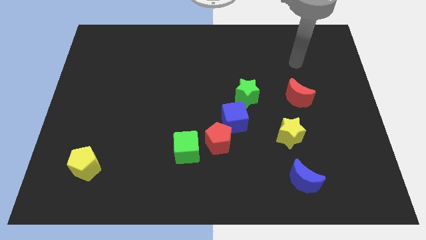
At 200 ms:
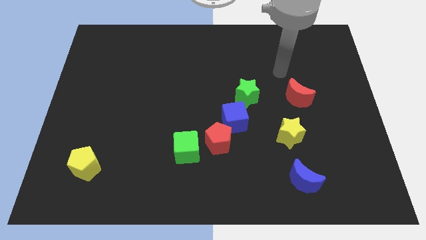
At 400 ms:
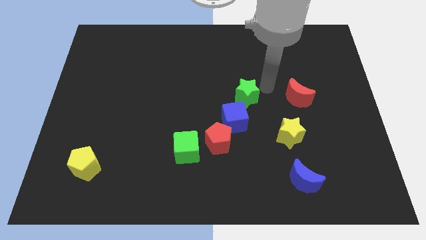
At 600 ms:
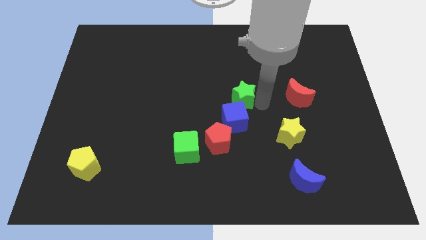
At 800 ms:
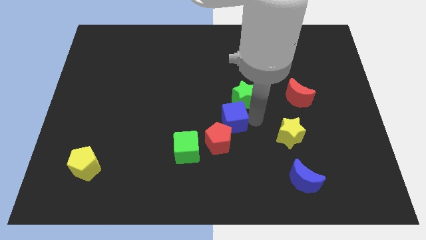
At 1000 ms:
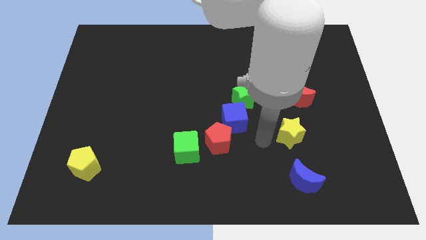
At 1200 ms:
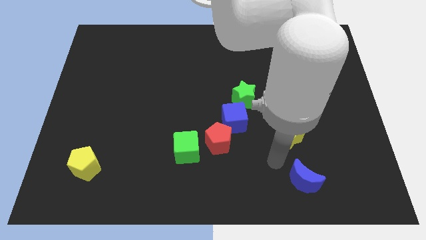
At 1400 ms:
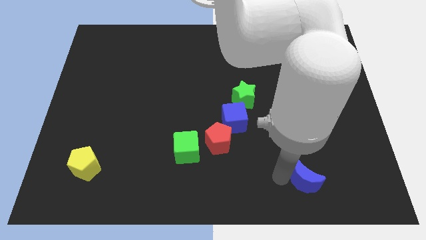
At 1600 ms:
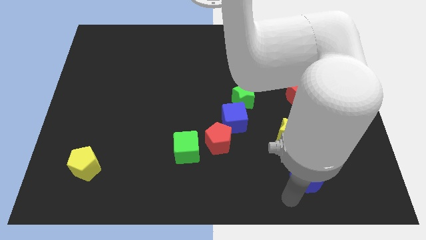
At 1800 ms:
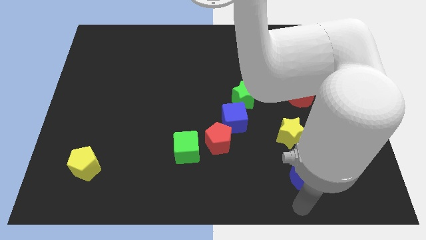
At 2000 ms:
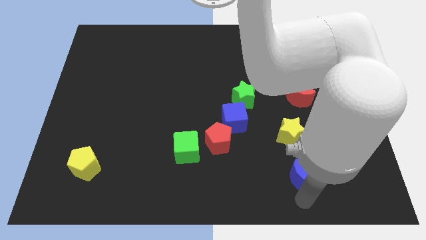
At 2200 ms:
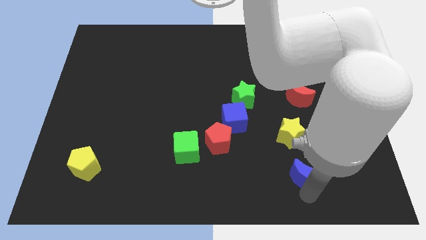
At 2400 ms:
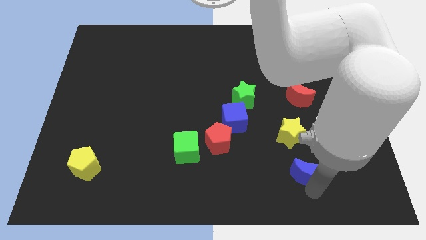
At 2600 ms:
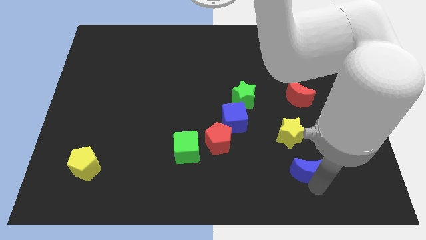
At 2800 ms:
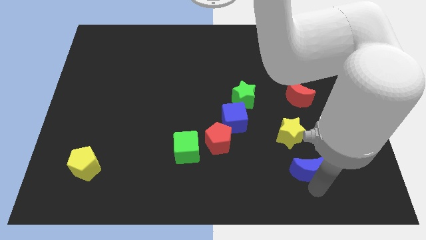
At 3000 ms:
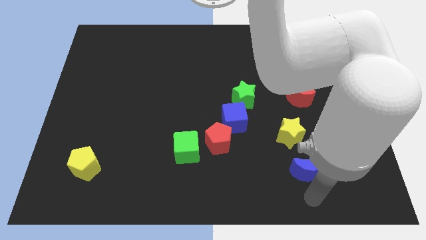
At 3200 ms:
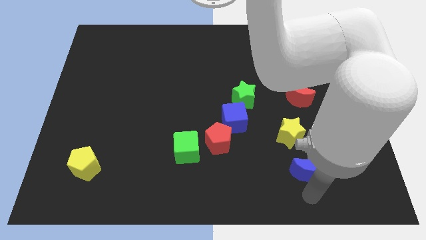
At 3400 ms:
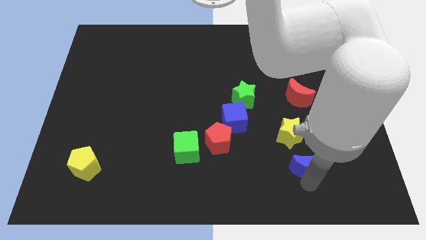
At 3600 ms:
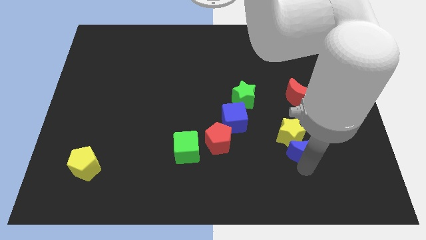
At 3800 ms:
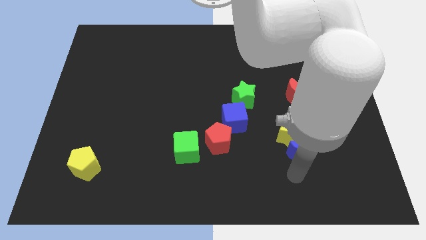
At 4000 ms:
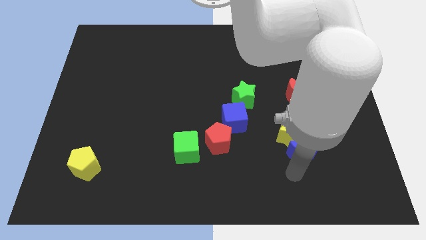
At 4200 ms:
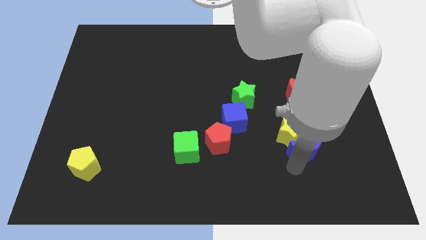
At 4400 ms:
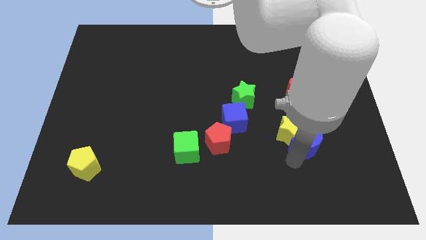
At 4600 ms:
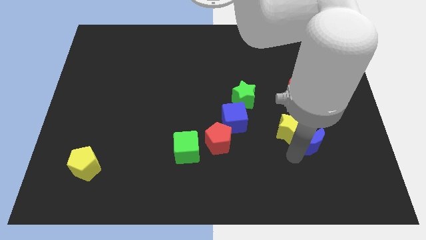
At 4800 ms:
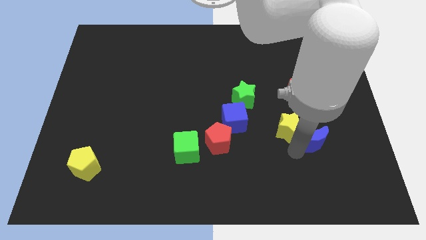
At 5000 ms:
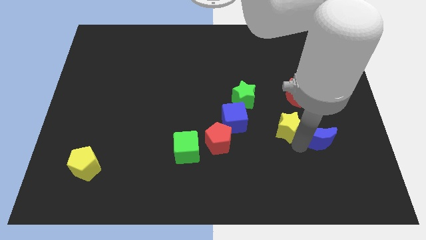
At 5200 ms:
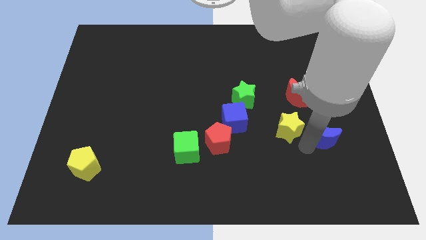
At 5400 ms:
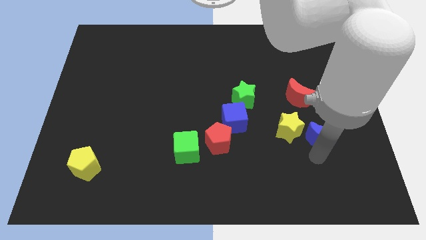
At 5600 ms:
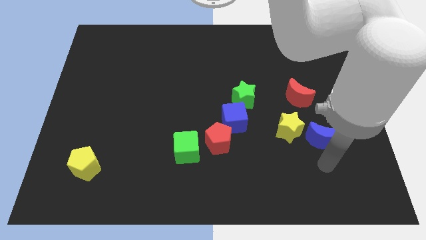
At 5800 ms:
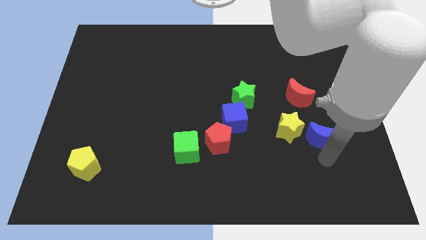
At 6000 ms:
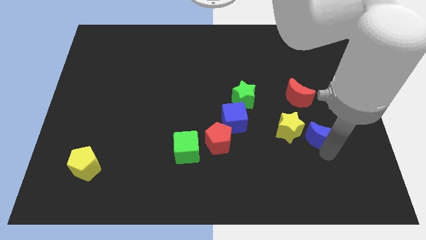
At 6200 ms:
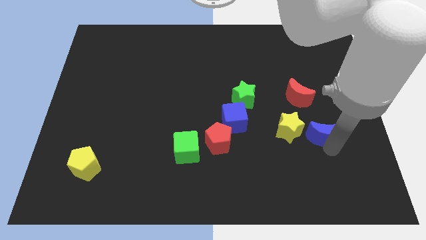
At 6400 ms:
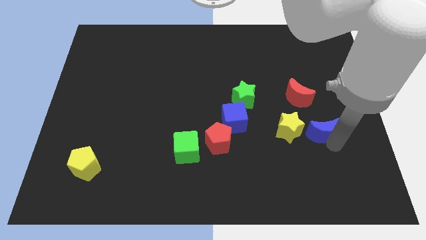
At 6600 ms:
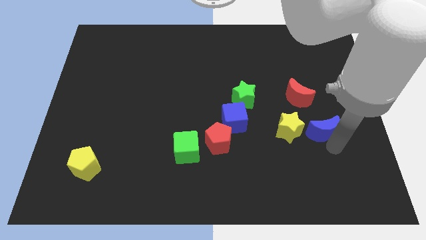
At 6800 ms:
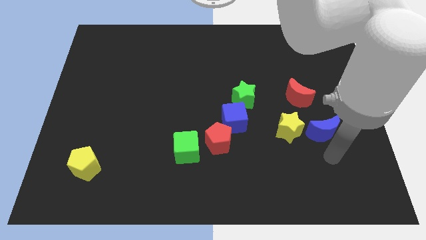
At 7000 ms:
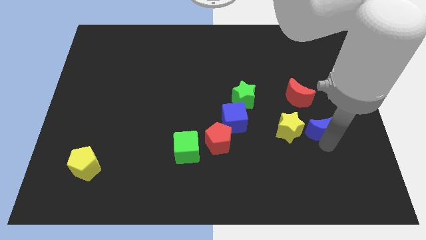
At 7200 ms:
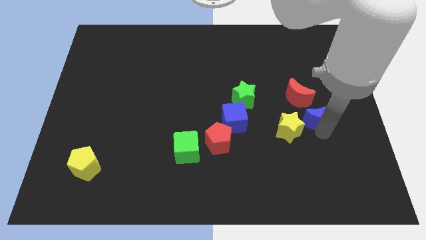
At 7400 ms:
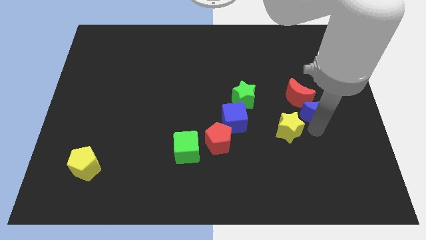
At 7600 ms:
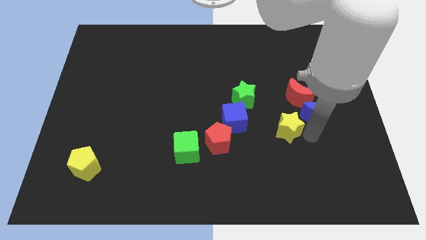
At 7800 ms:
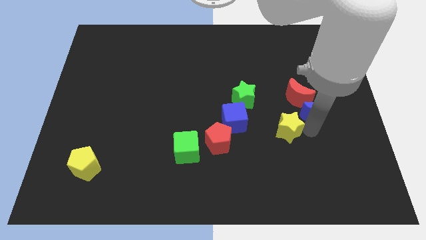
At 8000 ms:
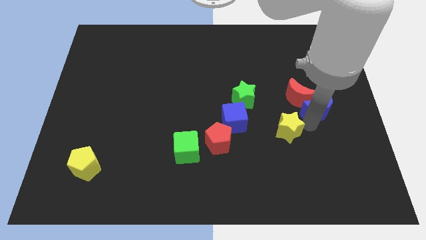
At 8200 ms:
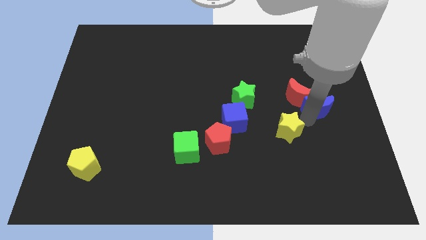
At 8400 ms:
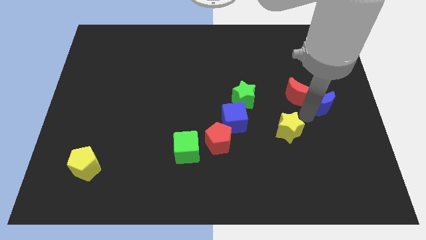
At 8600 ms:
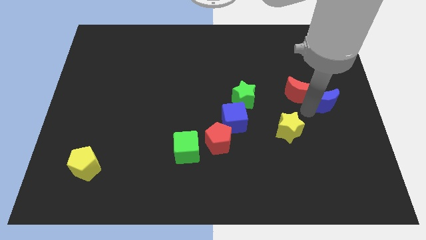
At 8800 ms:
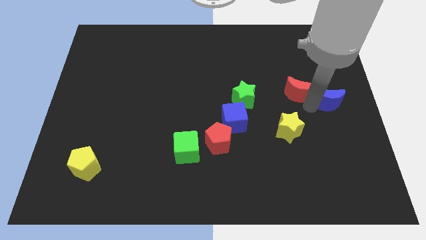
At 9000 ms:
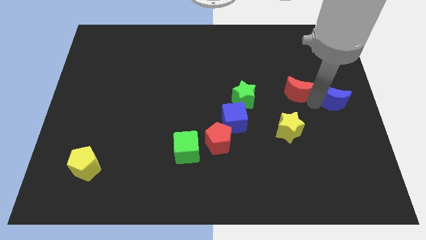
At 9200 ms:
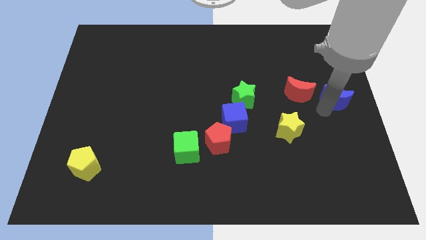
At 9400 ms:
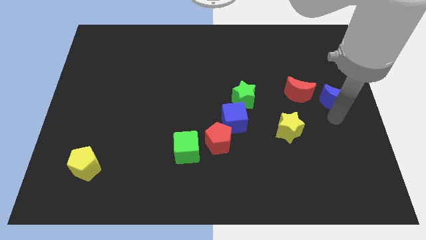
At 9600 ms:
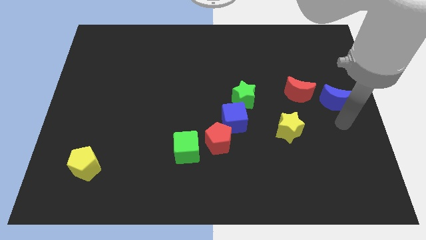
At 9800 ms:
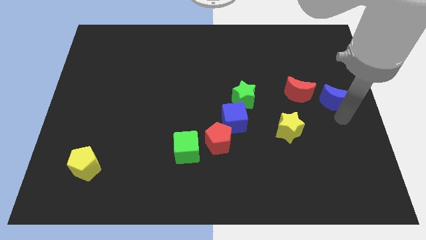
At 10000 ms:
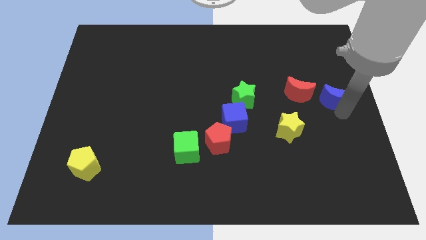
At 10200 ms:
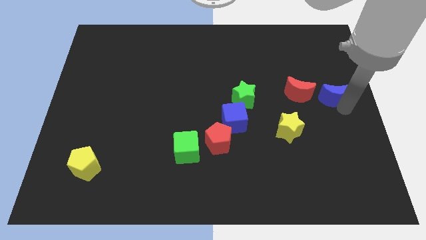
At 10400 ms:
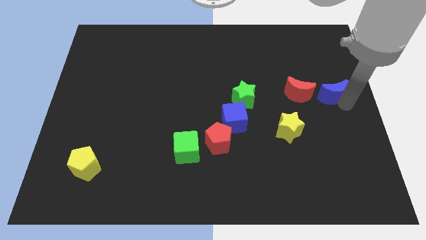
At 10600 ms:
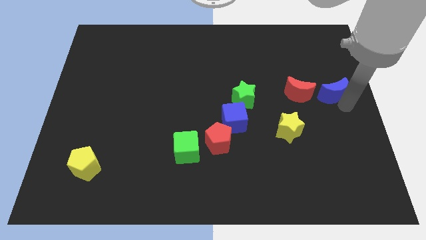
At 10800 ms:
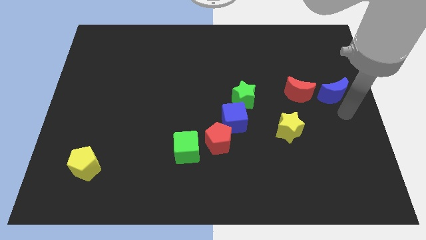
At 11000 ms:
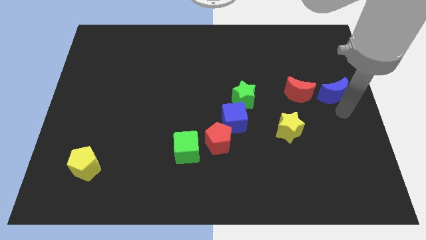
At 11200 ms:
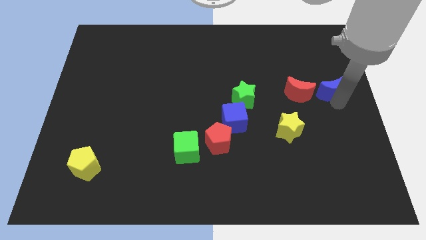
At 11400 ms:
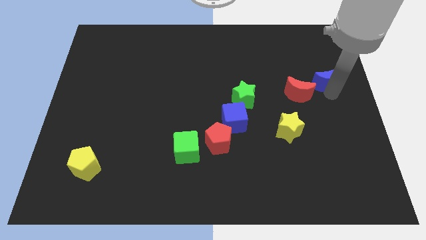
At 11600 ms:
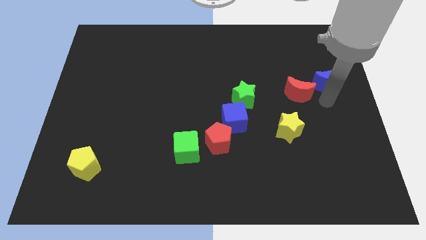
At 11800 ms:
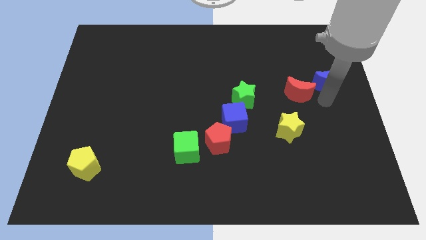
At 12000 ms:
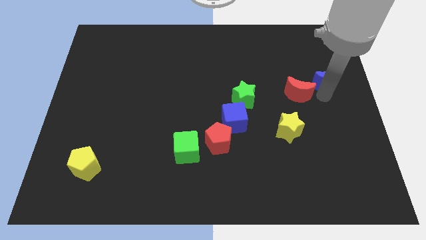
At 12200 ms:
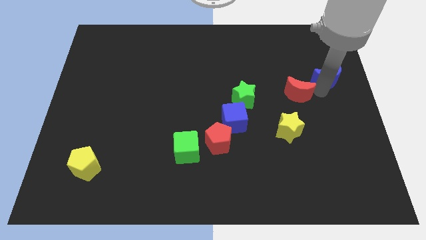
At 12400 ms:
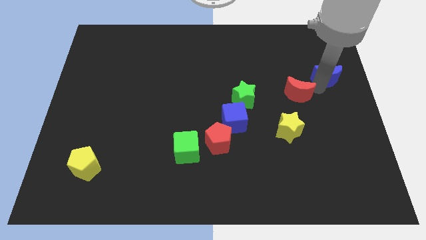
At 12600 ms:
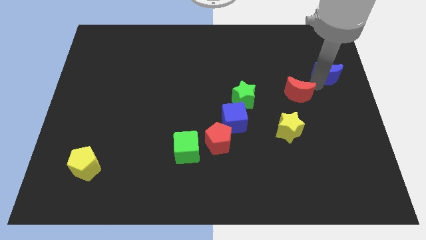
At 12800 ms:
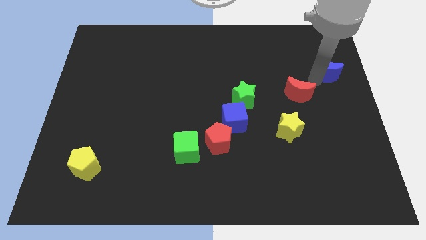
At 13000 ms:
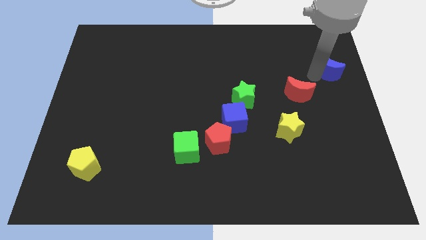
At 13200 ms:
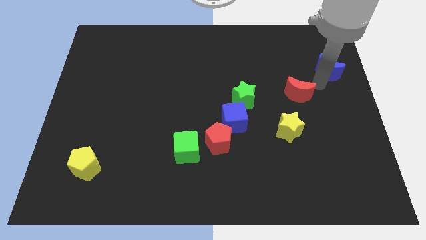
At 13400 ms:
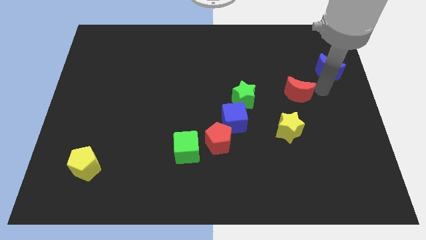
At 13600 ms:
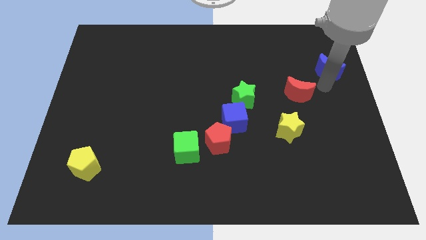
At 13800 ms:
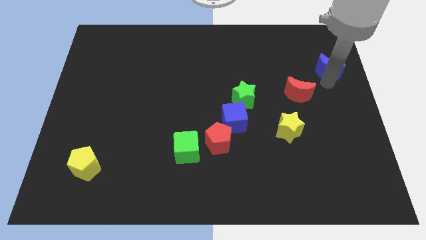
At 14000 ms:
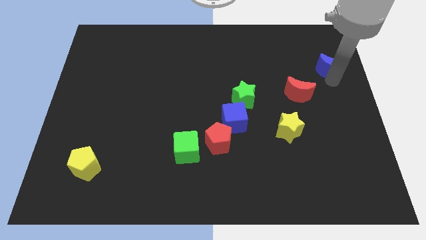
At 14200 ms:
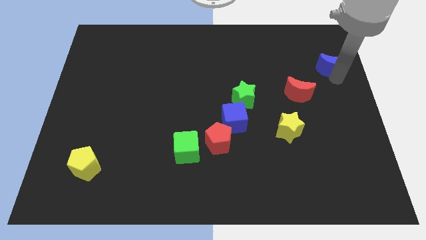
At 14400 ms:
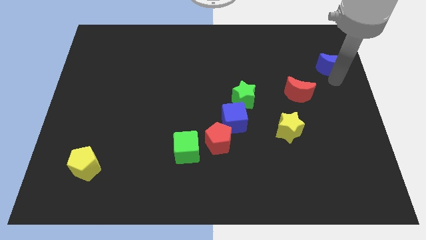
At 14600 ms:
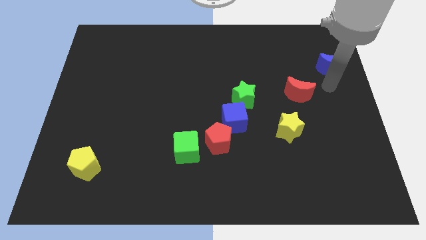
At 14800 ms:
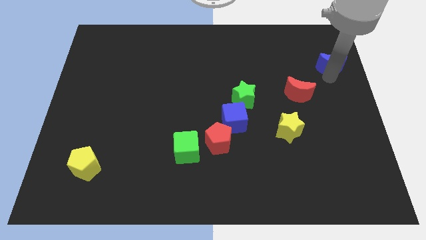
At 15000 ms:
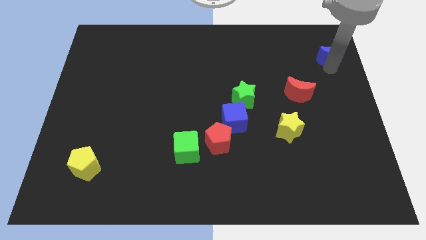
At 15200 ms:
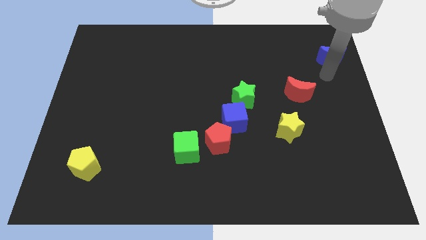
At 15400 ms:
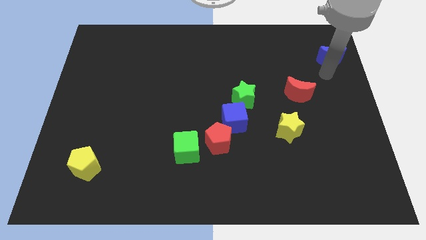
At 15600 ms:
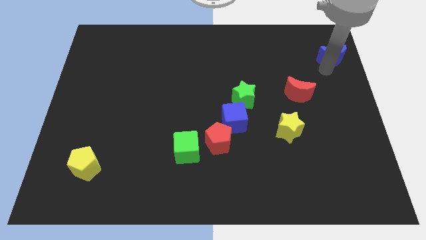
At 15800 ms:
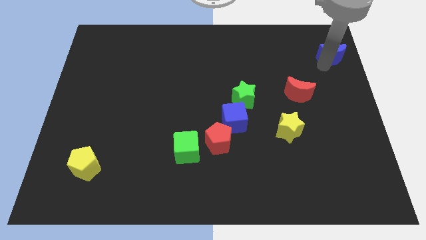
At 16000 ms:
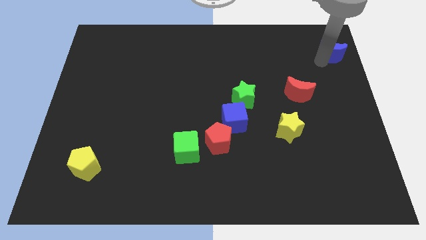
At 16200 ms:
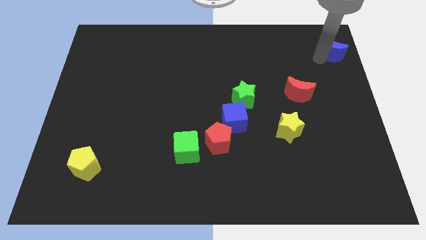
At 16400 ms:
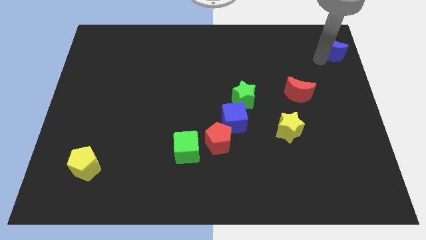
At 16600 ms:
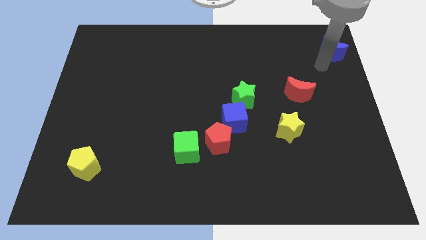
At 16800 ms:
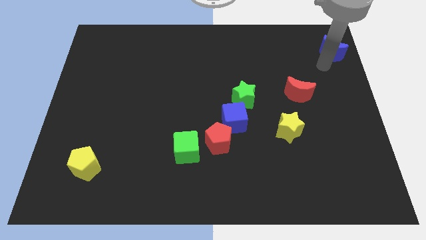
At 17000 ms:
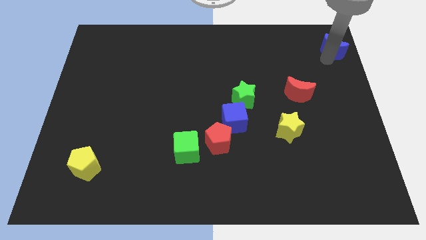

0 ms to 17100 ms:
slide the blue moon to the top right of the board
